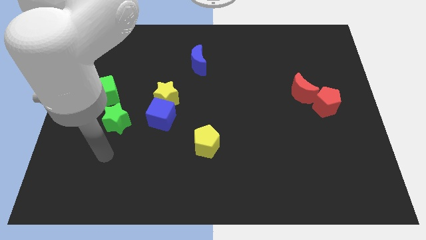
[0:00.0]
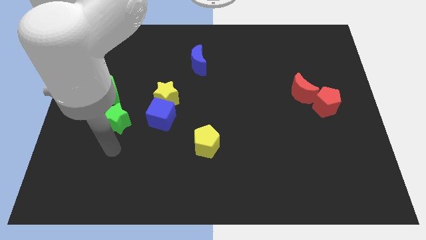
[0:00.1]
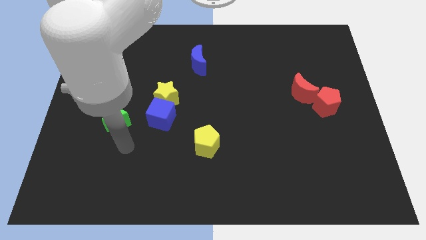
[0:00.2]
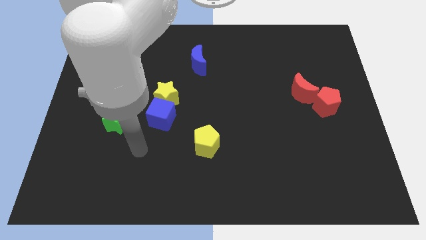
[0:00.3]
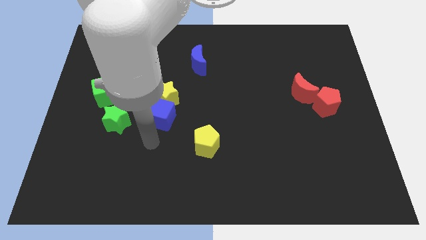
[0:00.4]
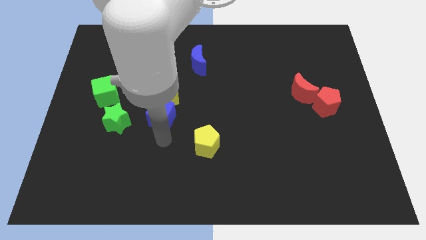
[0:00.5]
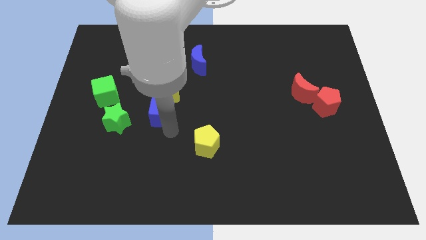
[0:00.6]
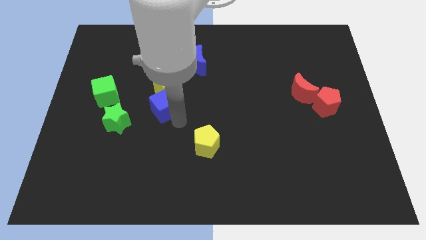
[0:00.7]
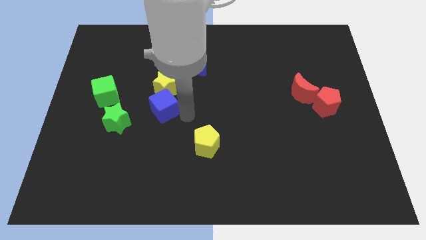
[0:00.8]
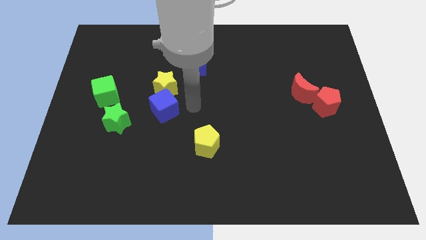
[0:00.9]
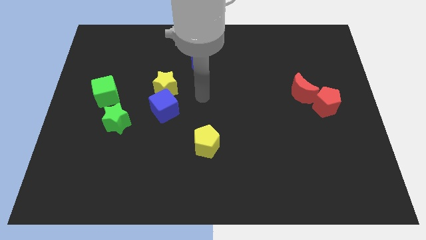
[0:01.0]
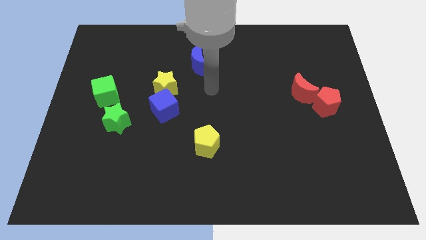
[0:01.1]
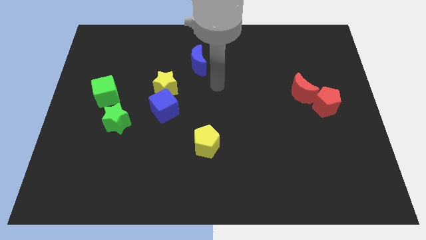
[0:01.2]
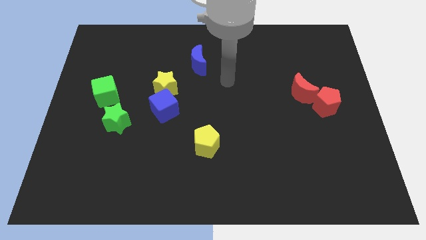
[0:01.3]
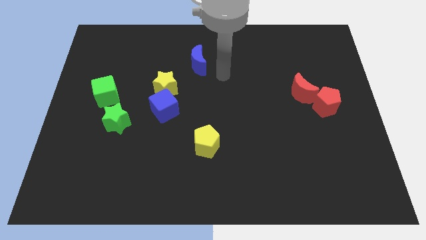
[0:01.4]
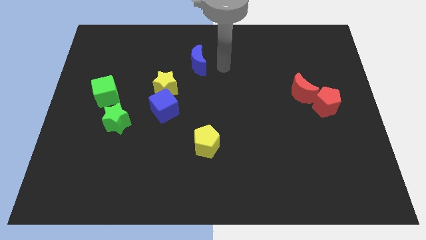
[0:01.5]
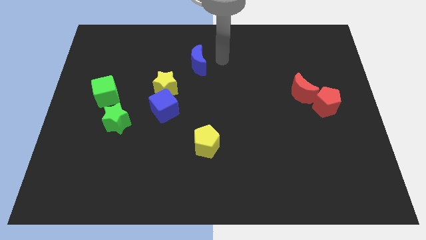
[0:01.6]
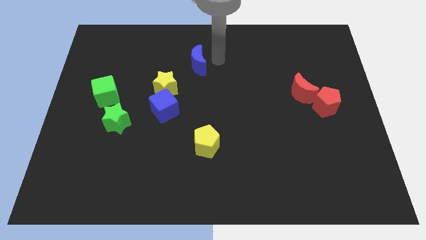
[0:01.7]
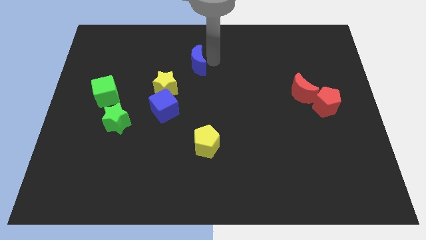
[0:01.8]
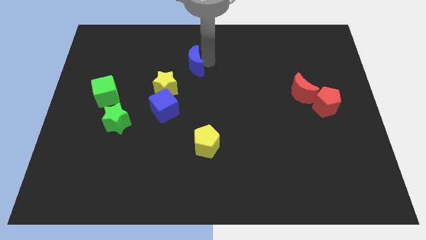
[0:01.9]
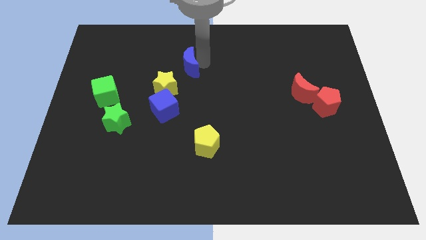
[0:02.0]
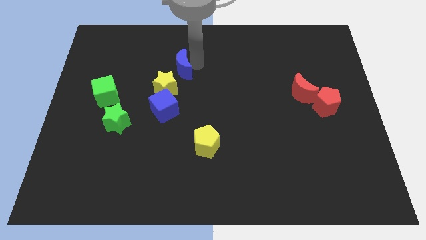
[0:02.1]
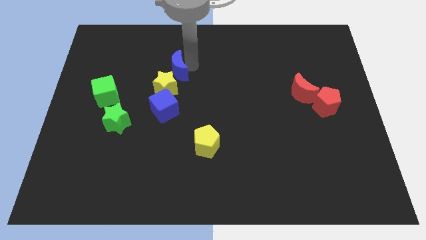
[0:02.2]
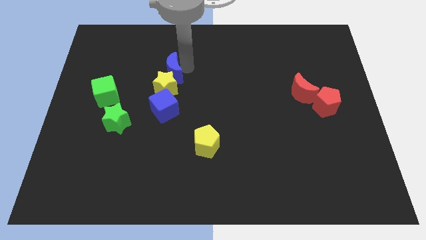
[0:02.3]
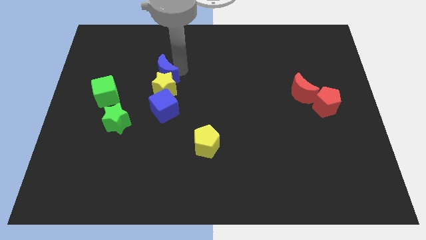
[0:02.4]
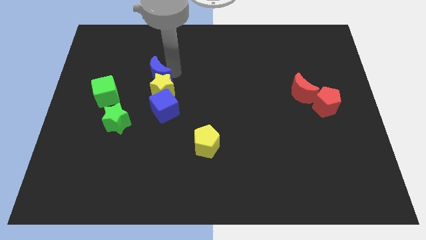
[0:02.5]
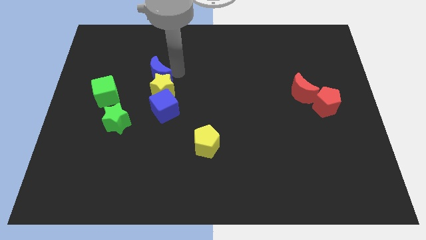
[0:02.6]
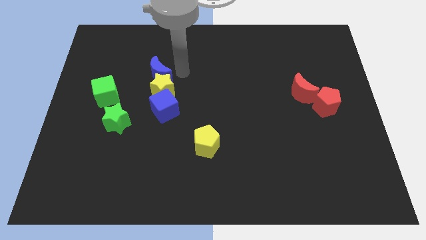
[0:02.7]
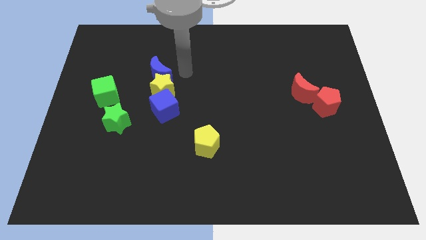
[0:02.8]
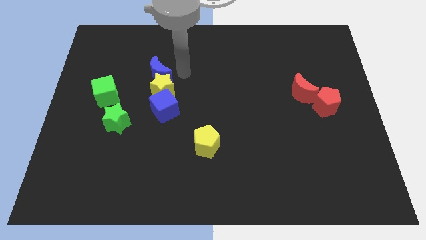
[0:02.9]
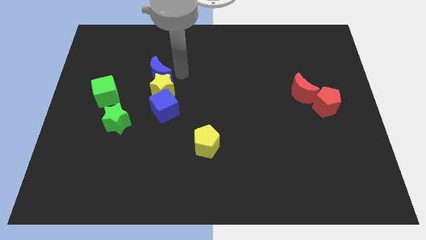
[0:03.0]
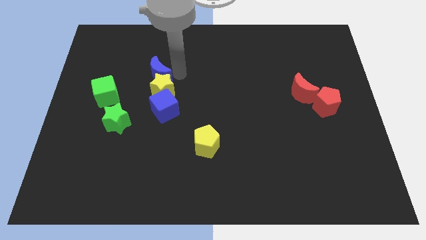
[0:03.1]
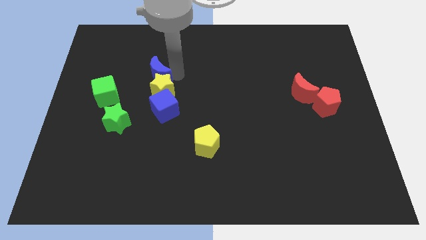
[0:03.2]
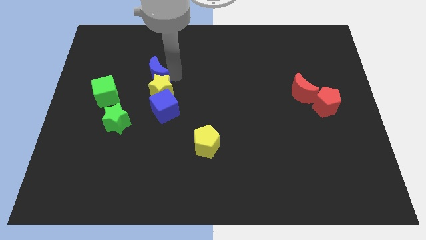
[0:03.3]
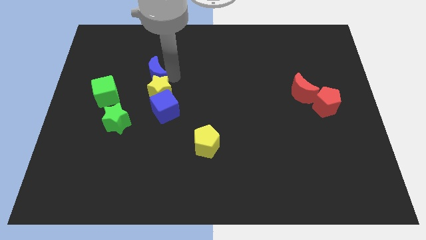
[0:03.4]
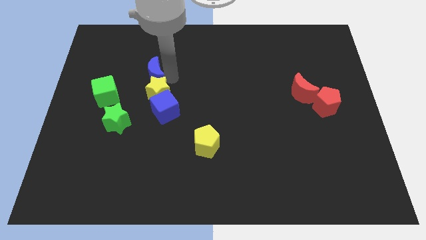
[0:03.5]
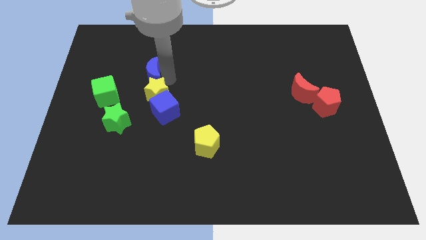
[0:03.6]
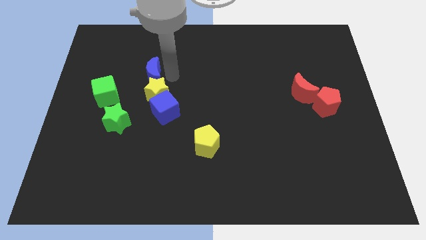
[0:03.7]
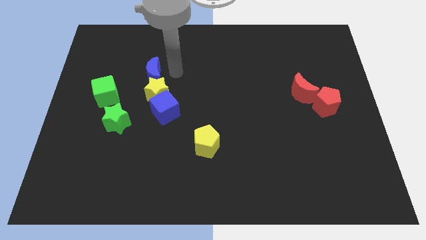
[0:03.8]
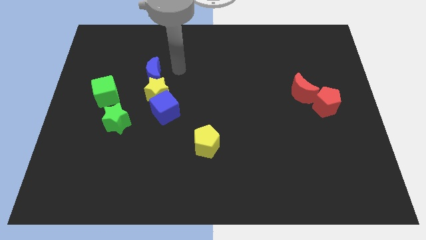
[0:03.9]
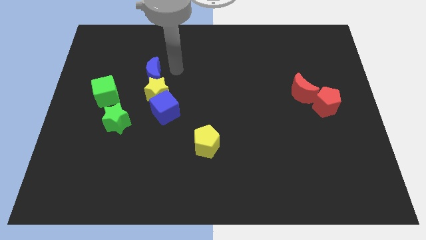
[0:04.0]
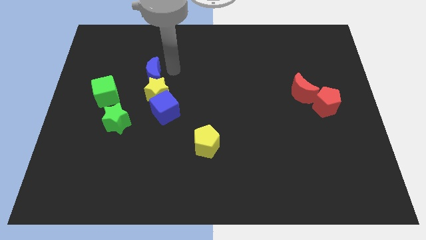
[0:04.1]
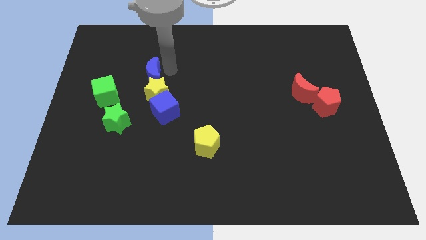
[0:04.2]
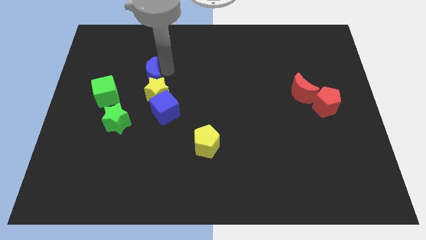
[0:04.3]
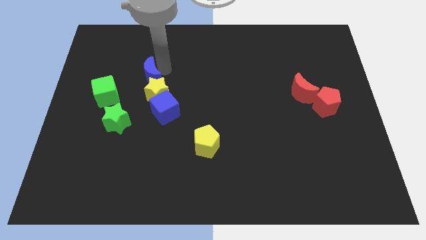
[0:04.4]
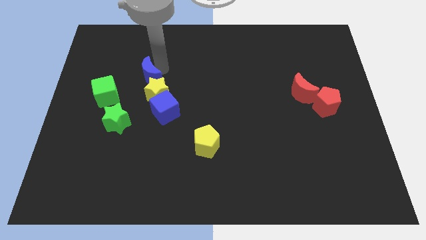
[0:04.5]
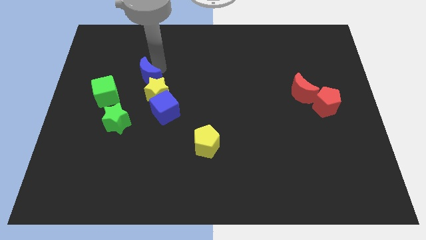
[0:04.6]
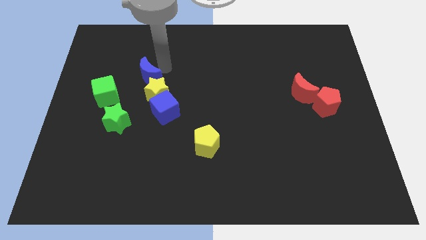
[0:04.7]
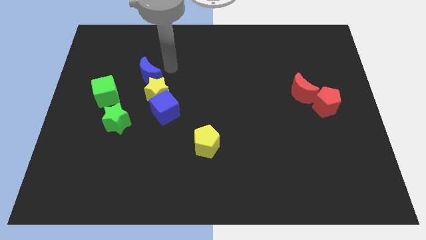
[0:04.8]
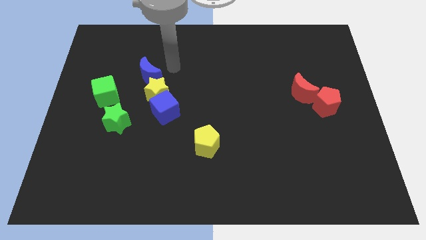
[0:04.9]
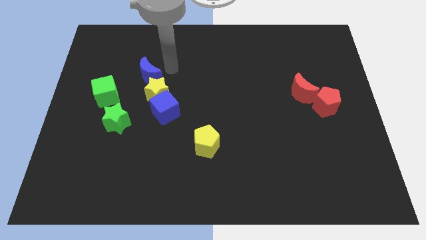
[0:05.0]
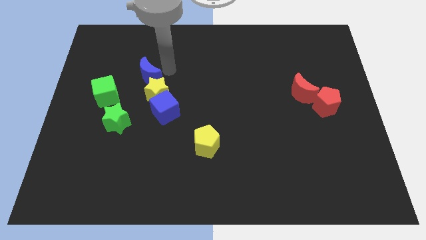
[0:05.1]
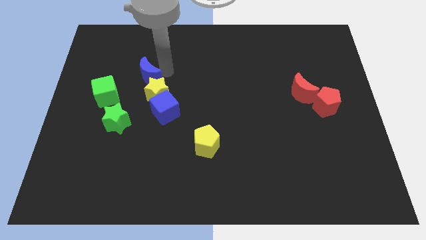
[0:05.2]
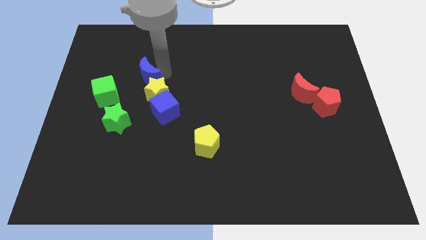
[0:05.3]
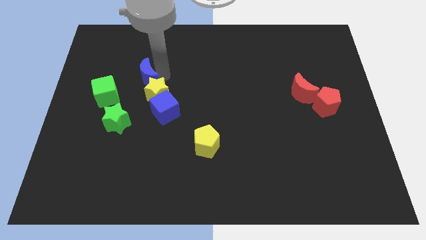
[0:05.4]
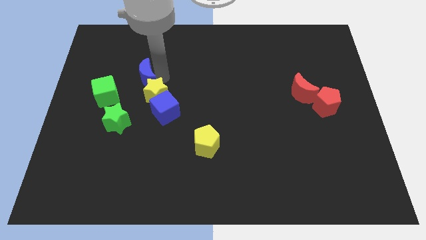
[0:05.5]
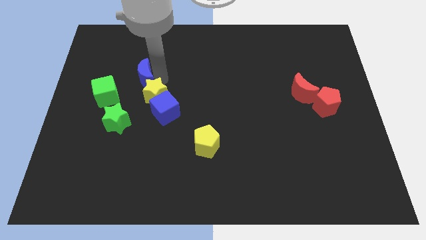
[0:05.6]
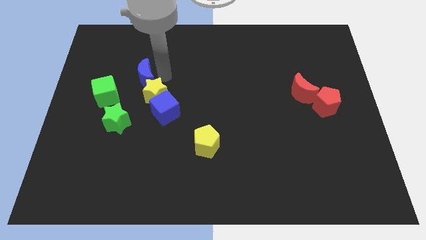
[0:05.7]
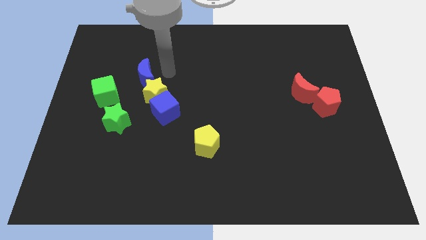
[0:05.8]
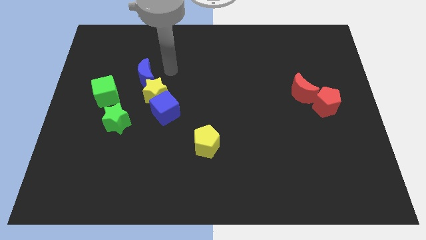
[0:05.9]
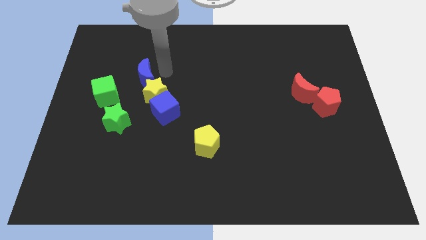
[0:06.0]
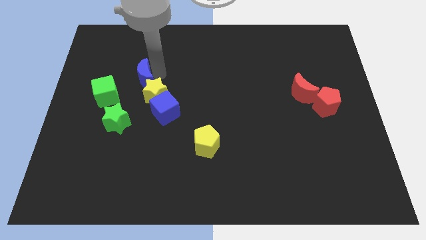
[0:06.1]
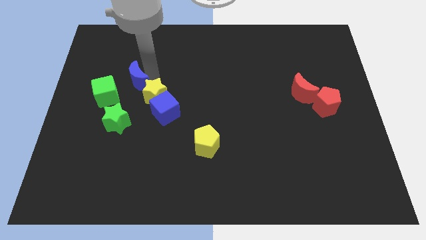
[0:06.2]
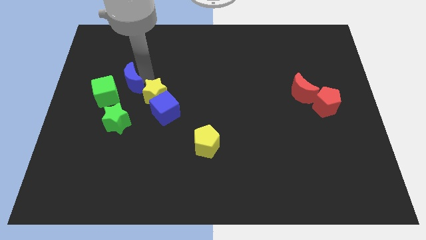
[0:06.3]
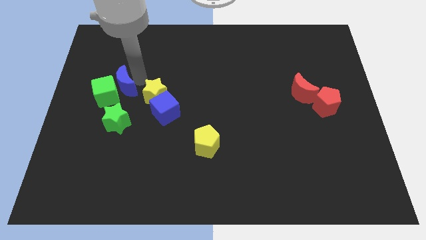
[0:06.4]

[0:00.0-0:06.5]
put the blue moon to the green cube
